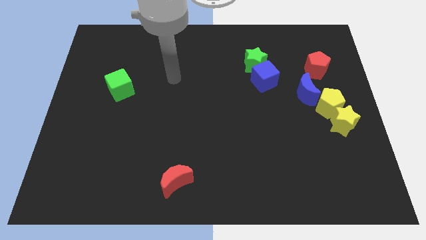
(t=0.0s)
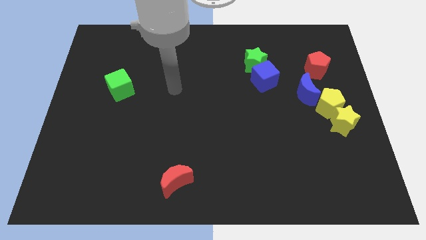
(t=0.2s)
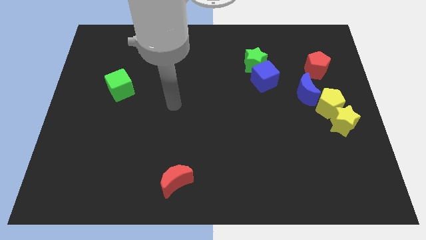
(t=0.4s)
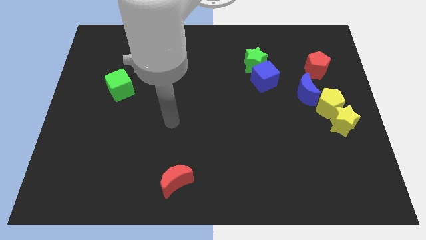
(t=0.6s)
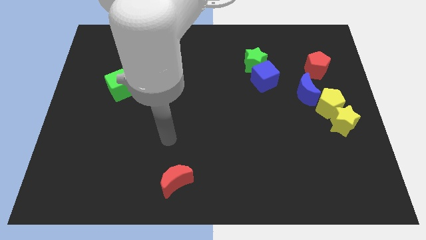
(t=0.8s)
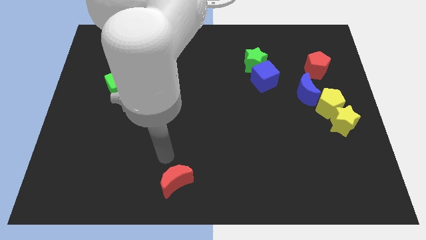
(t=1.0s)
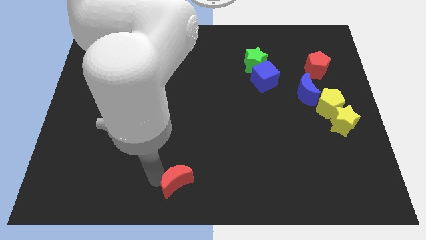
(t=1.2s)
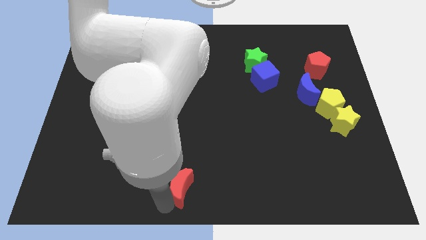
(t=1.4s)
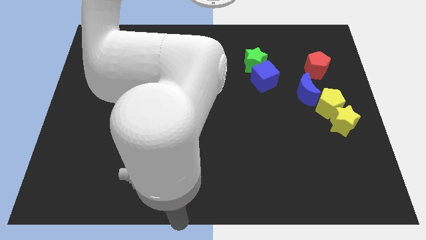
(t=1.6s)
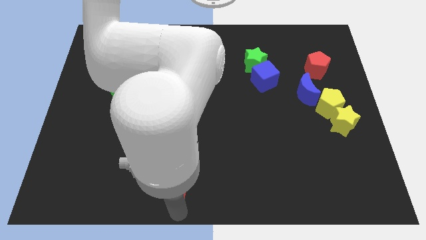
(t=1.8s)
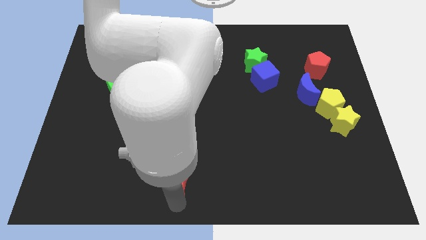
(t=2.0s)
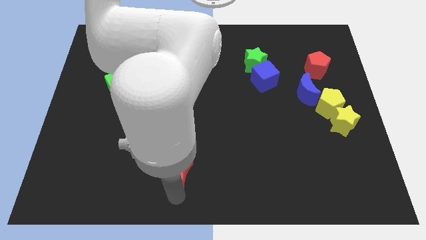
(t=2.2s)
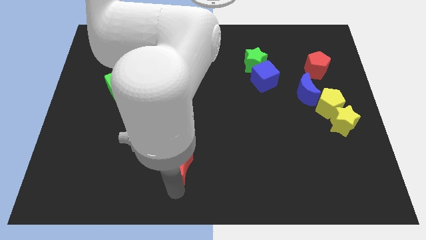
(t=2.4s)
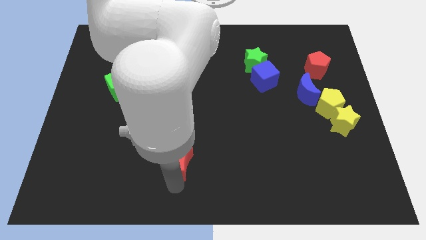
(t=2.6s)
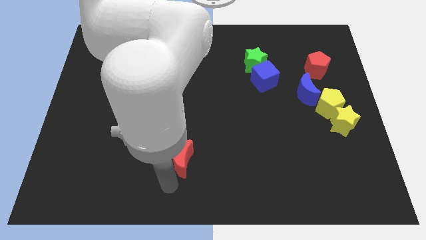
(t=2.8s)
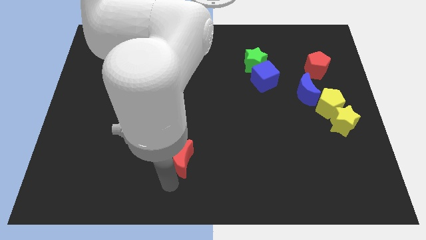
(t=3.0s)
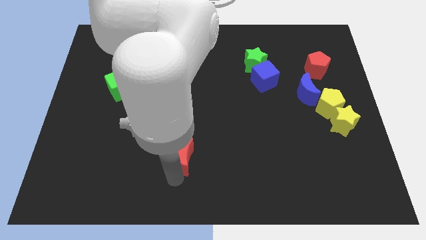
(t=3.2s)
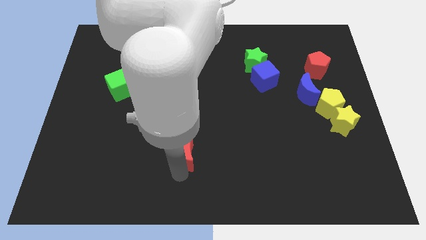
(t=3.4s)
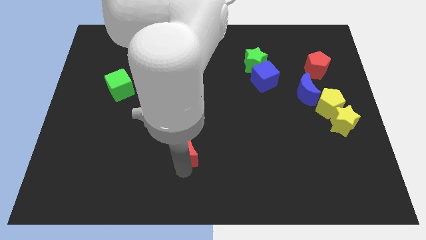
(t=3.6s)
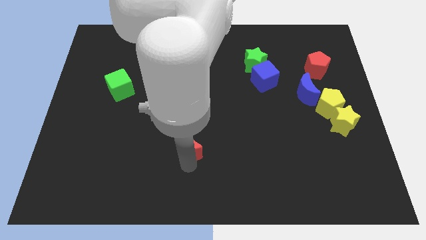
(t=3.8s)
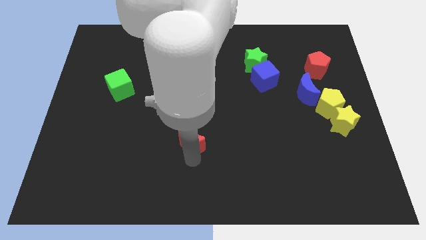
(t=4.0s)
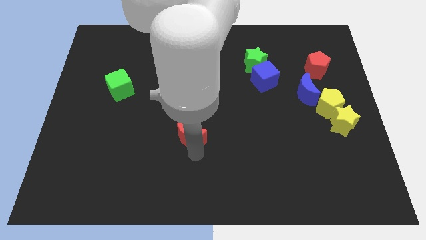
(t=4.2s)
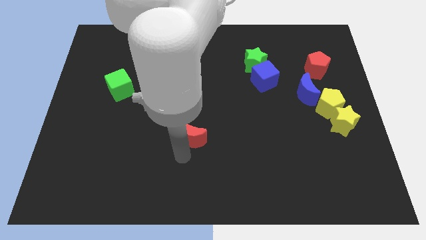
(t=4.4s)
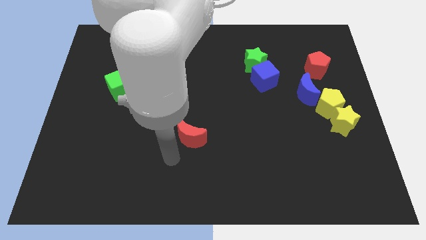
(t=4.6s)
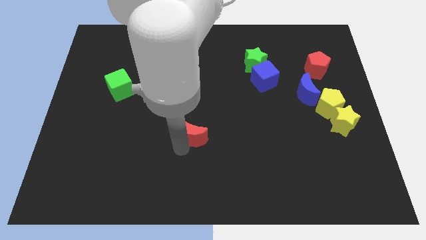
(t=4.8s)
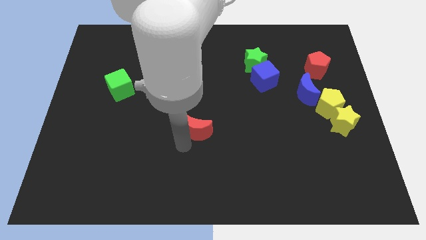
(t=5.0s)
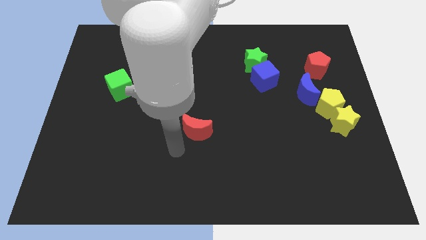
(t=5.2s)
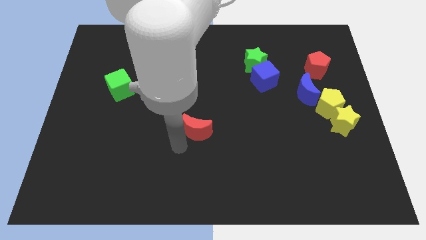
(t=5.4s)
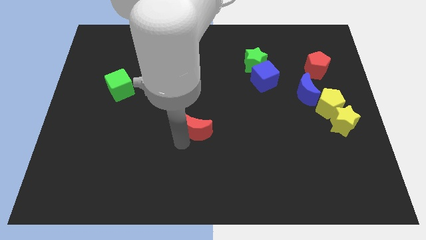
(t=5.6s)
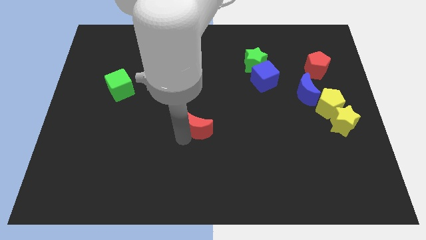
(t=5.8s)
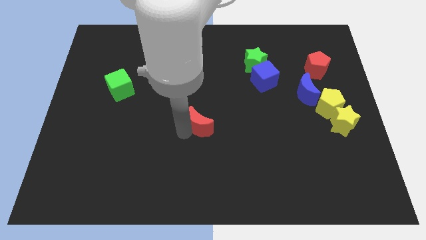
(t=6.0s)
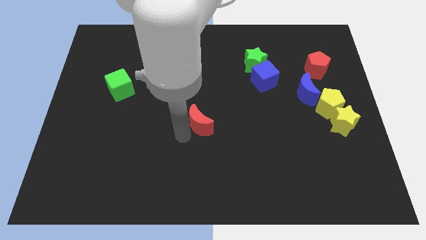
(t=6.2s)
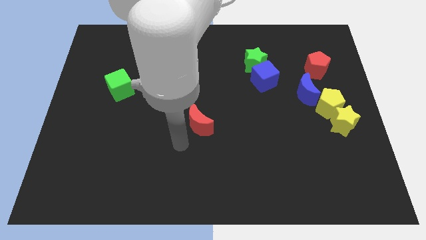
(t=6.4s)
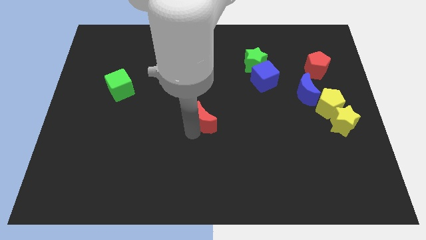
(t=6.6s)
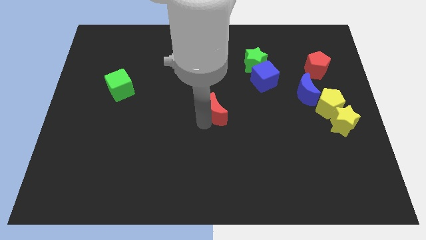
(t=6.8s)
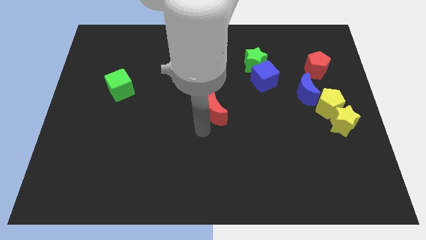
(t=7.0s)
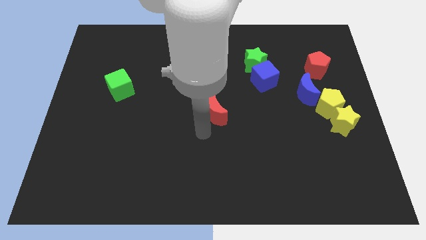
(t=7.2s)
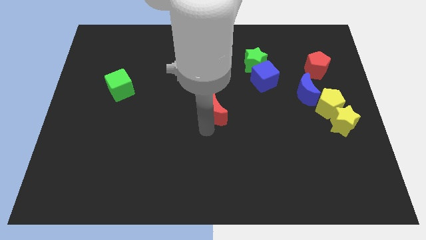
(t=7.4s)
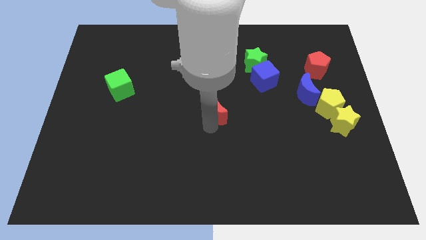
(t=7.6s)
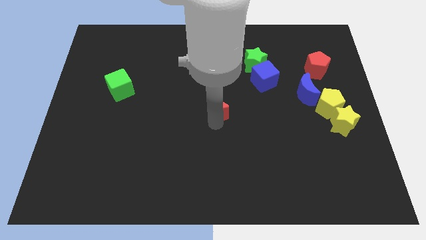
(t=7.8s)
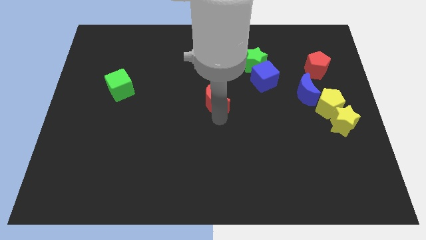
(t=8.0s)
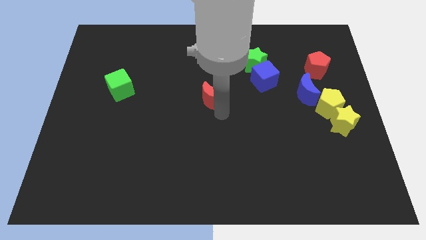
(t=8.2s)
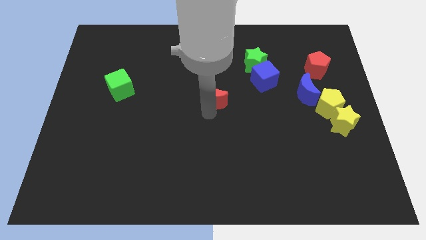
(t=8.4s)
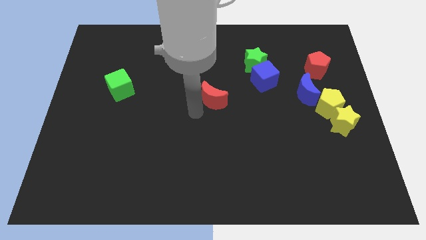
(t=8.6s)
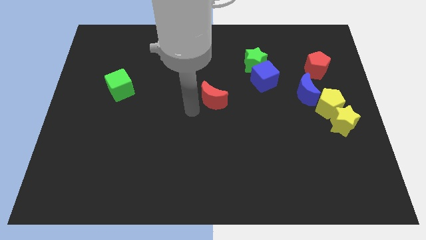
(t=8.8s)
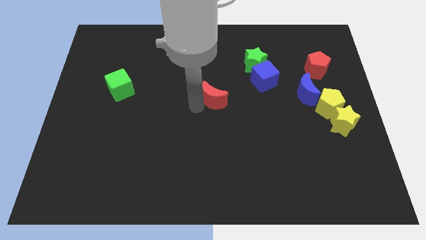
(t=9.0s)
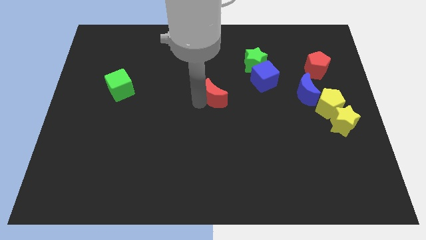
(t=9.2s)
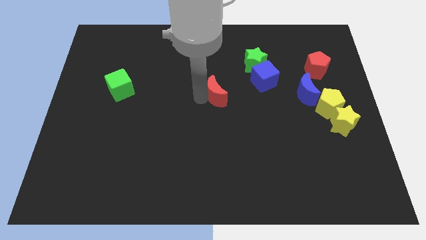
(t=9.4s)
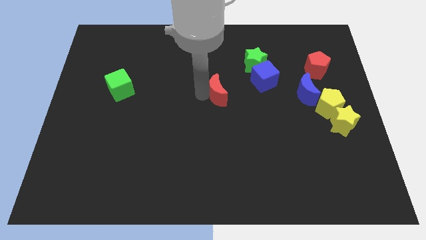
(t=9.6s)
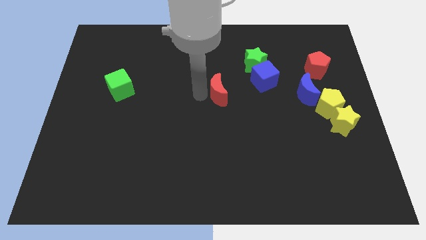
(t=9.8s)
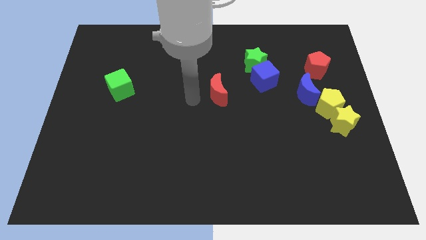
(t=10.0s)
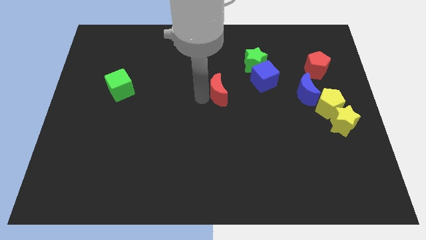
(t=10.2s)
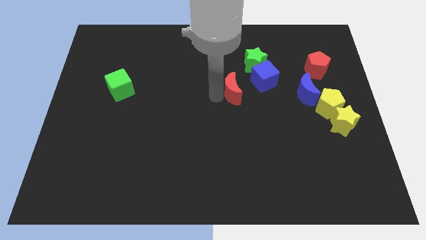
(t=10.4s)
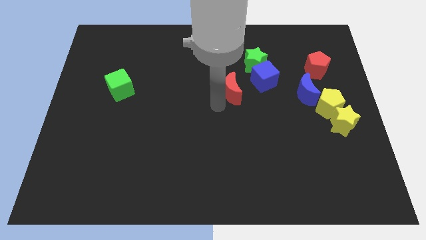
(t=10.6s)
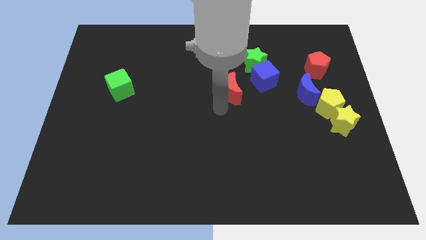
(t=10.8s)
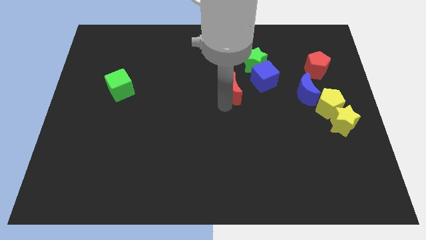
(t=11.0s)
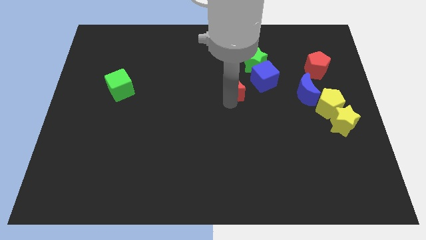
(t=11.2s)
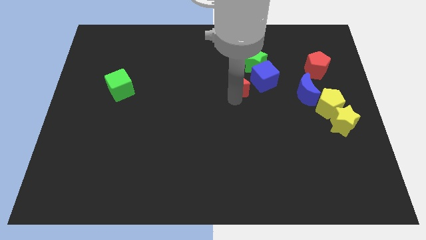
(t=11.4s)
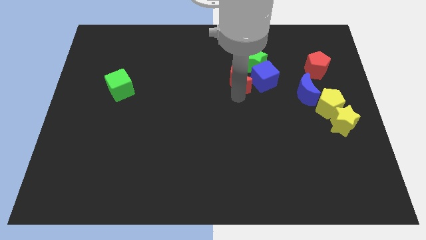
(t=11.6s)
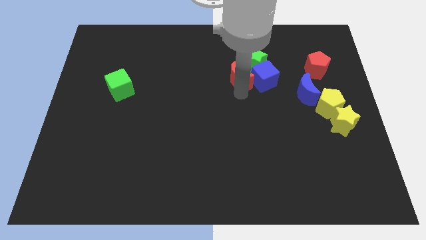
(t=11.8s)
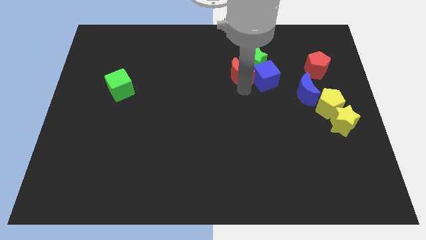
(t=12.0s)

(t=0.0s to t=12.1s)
move the red moon to the green star

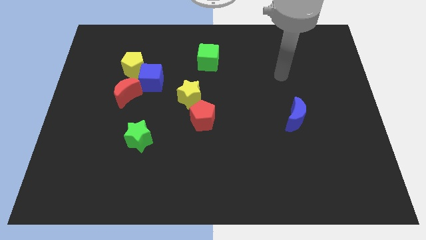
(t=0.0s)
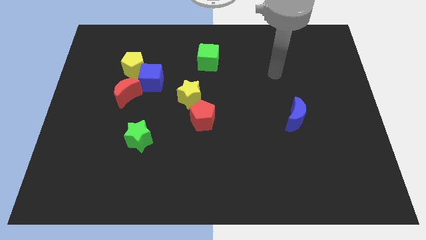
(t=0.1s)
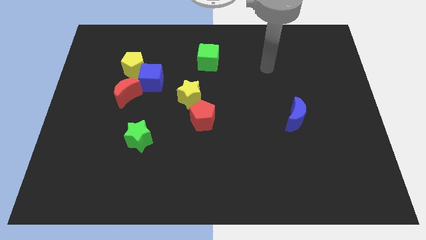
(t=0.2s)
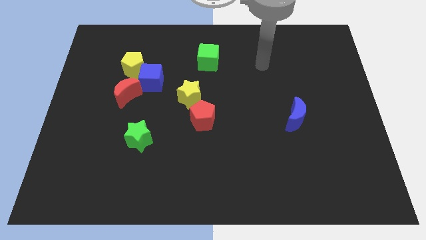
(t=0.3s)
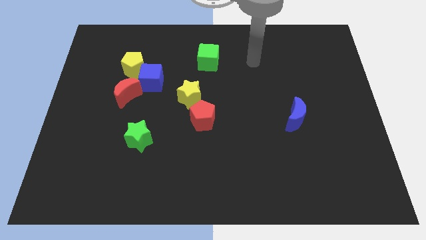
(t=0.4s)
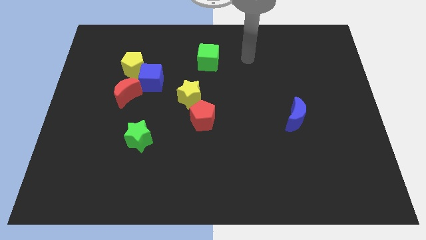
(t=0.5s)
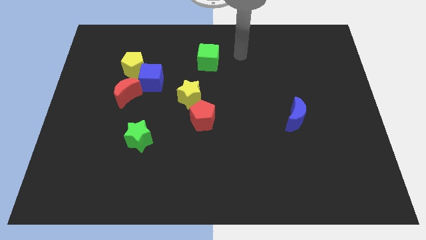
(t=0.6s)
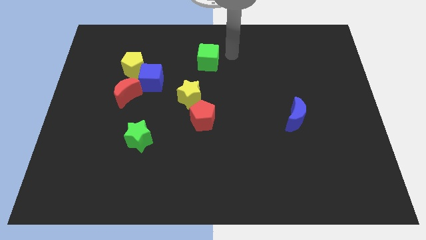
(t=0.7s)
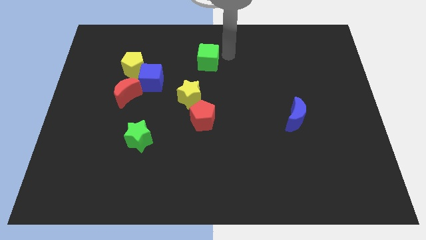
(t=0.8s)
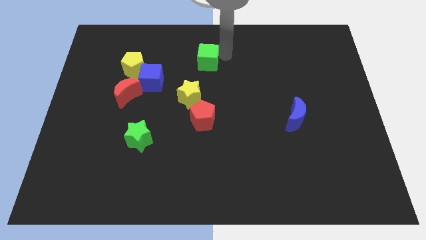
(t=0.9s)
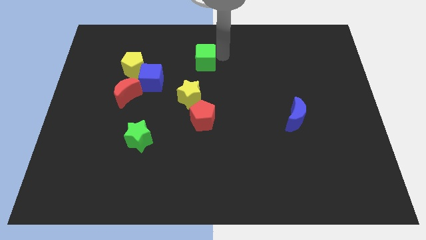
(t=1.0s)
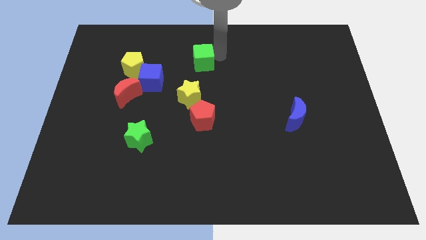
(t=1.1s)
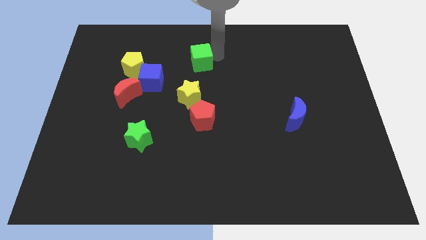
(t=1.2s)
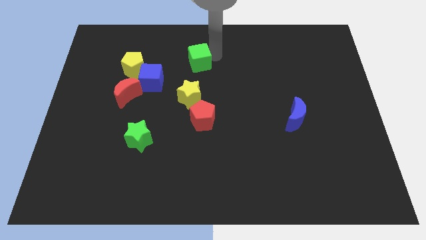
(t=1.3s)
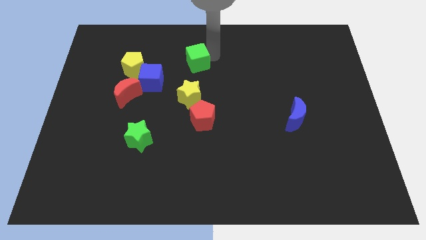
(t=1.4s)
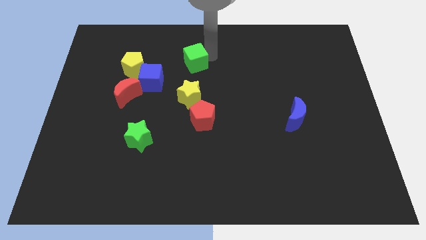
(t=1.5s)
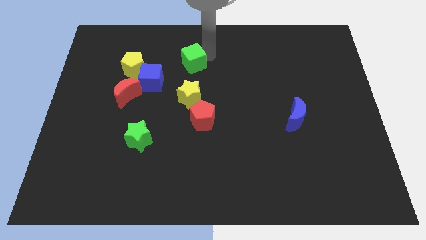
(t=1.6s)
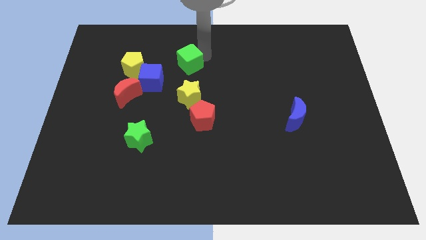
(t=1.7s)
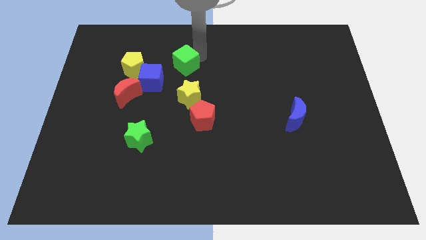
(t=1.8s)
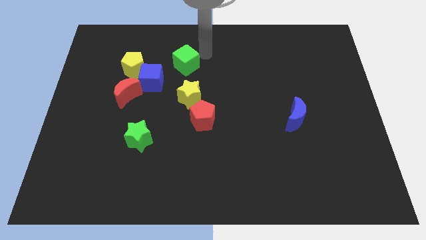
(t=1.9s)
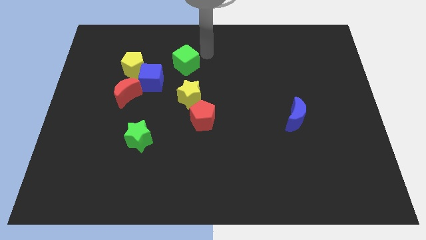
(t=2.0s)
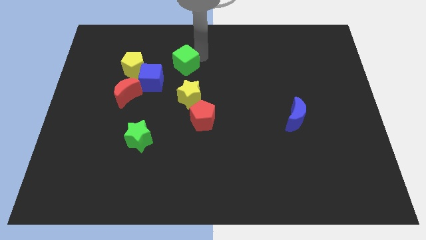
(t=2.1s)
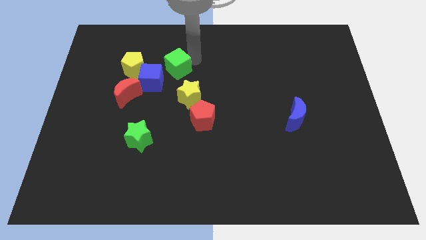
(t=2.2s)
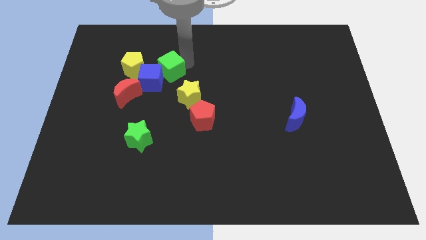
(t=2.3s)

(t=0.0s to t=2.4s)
push the green cube close to the blue cube
